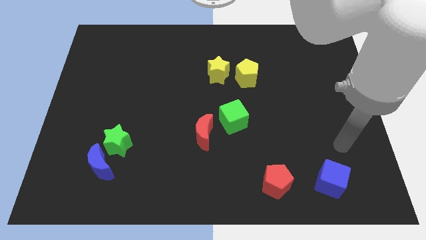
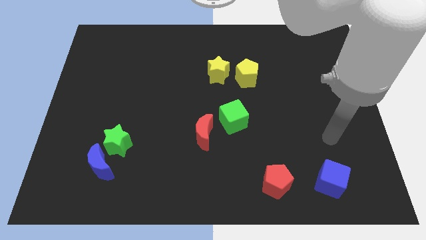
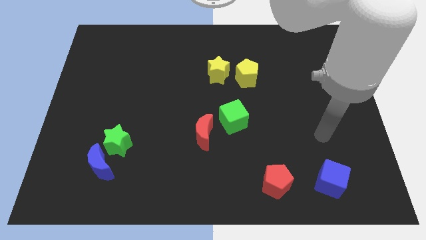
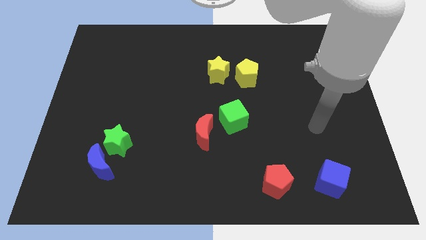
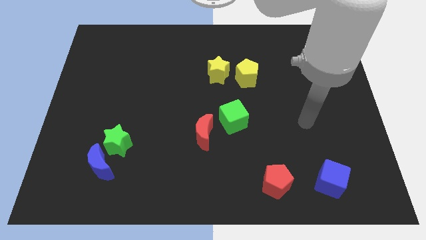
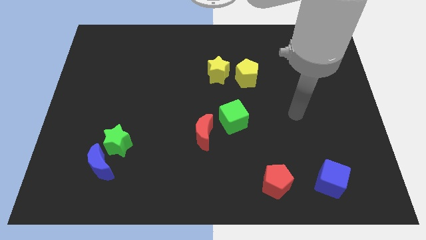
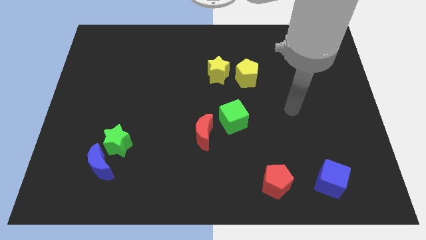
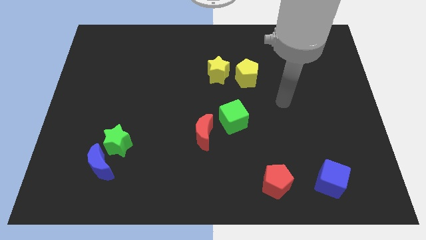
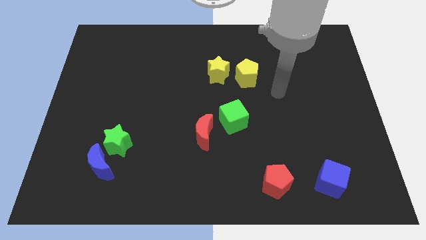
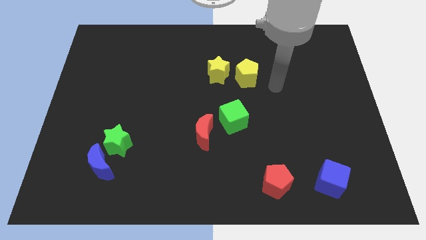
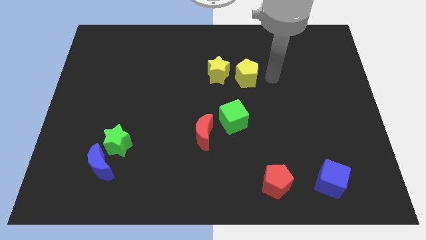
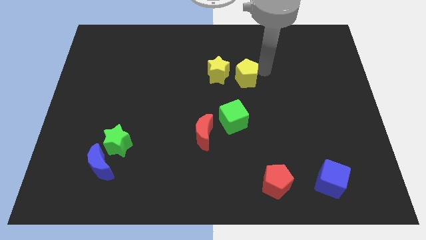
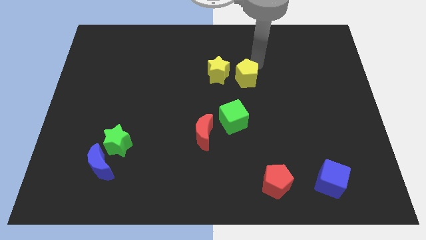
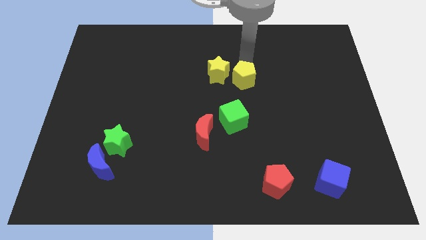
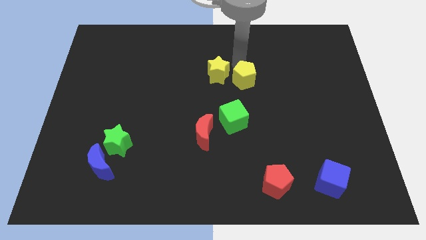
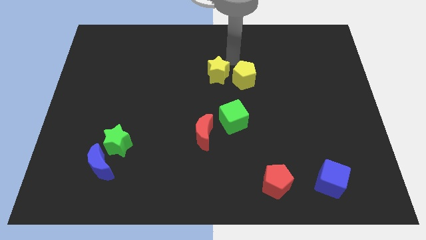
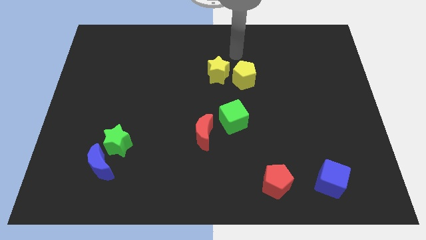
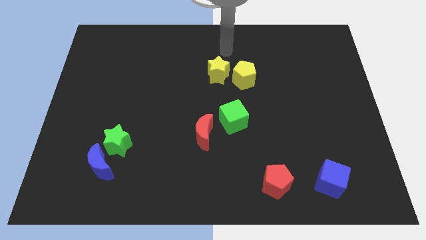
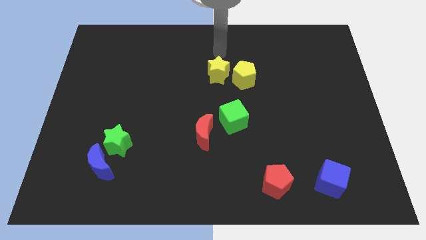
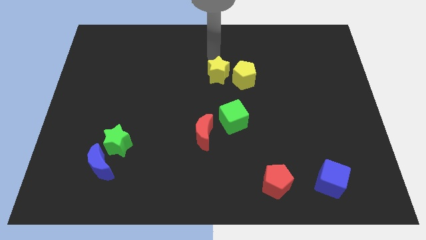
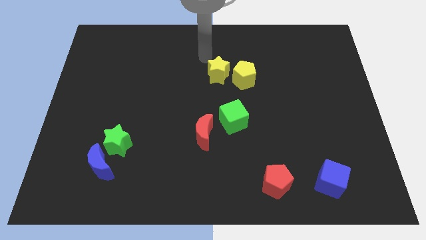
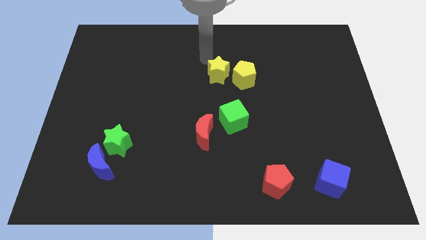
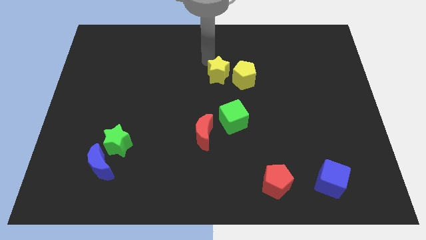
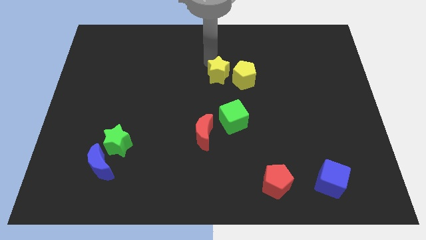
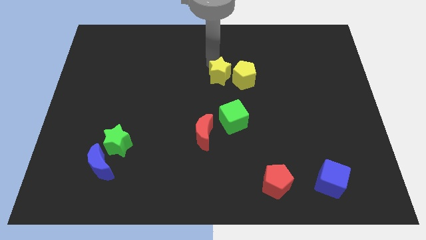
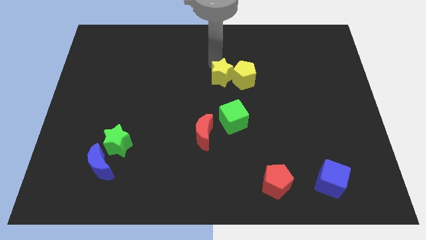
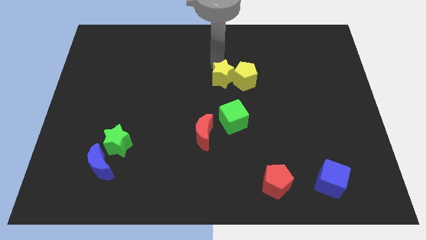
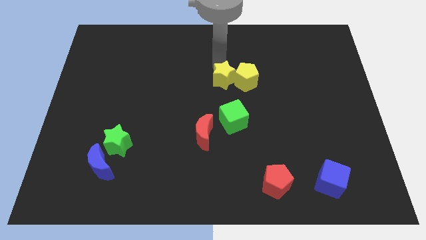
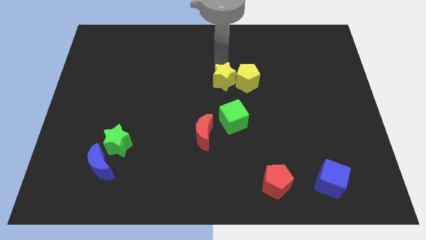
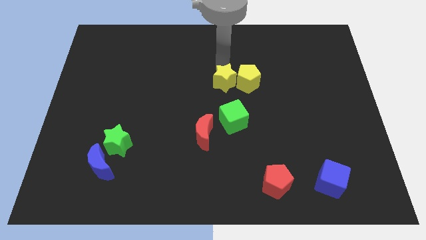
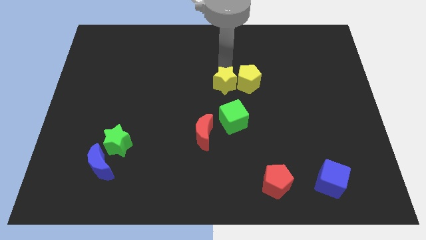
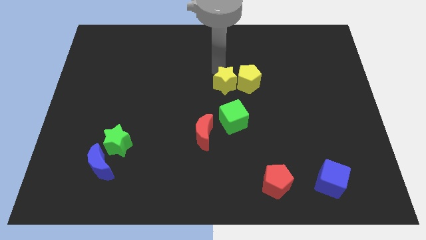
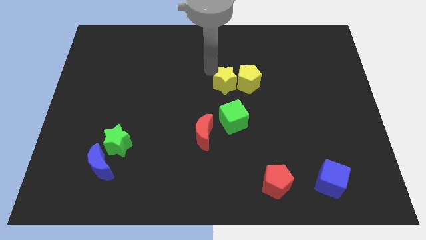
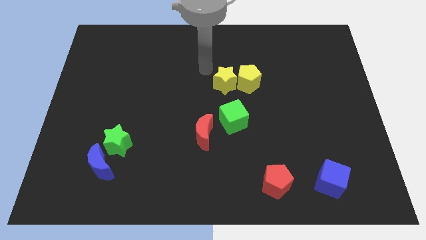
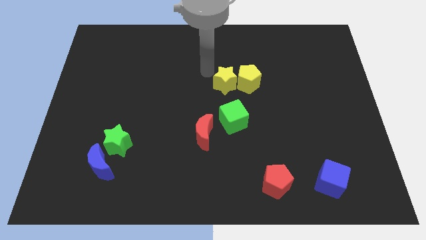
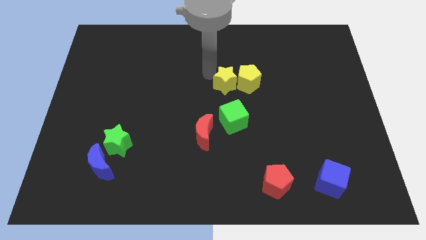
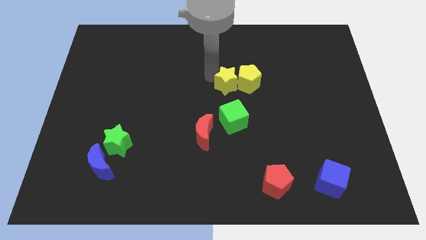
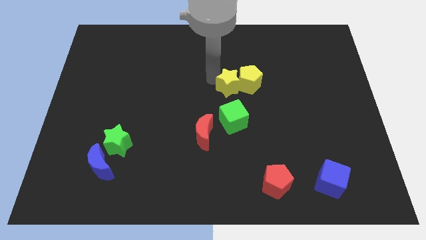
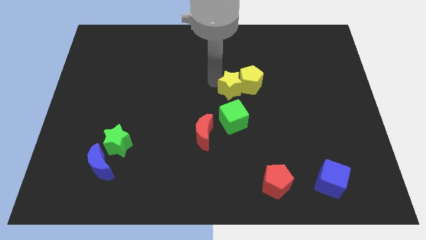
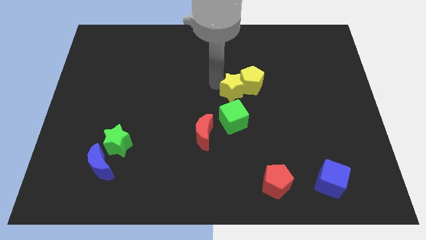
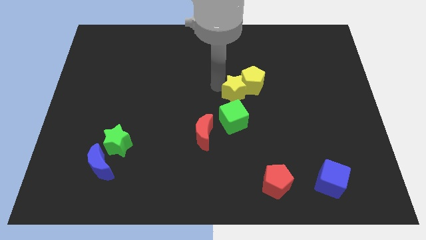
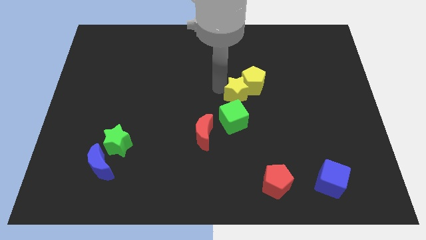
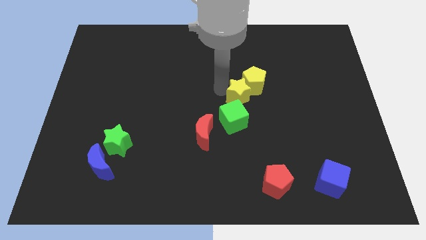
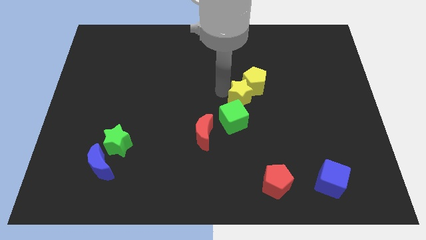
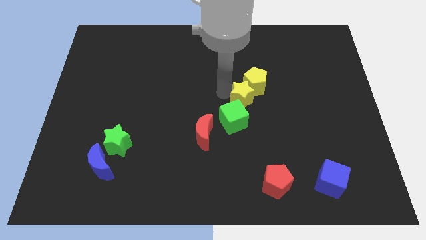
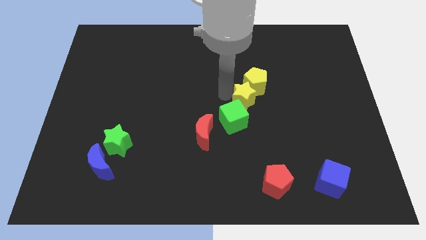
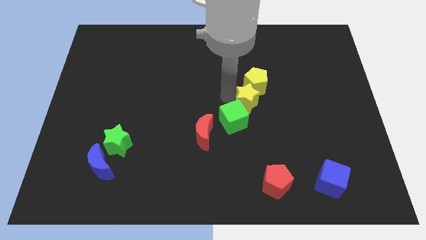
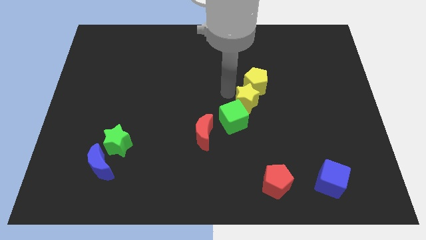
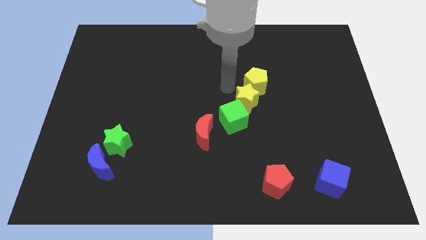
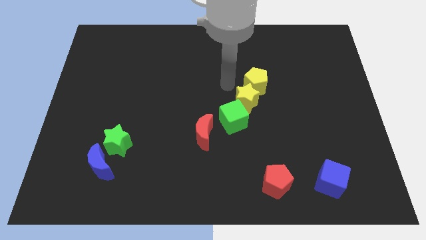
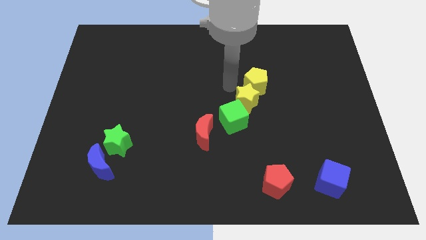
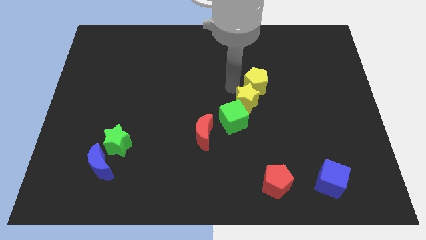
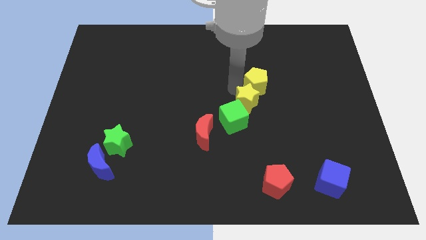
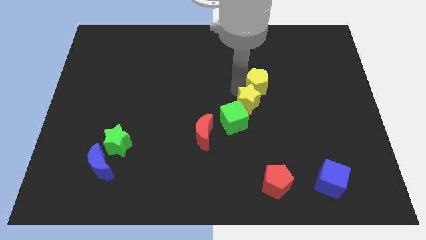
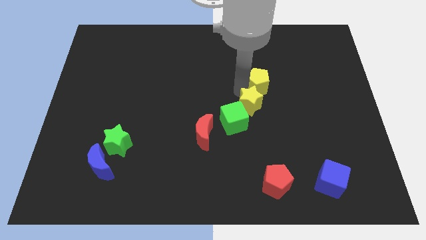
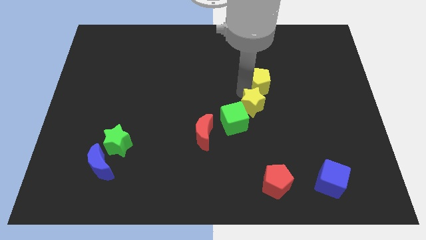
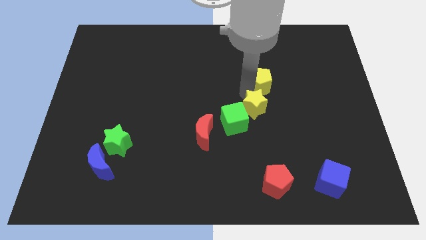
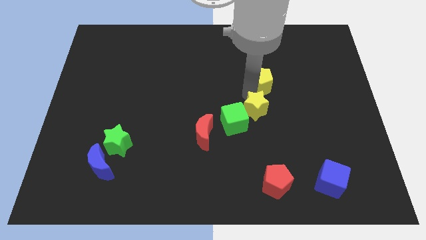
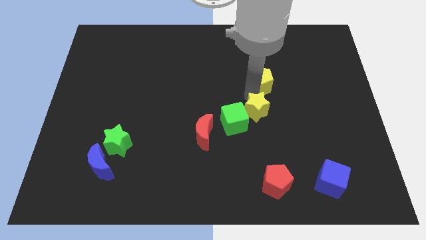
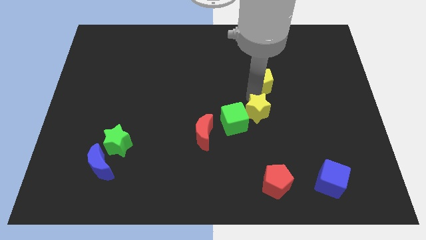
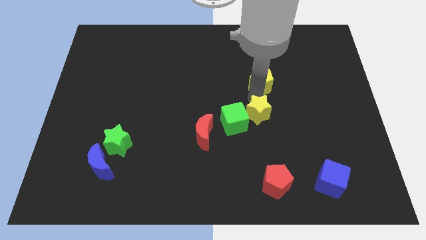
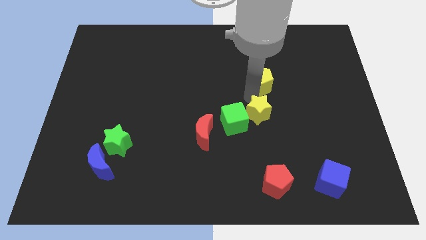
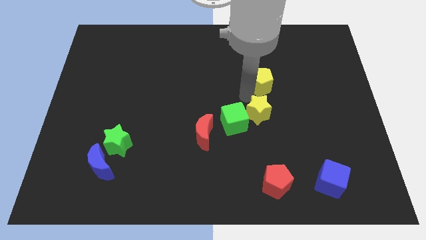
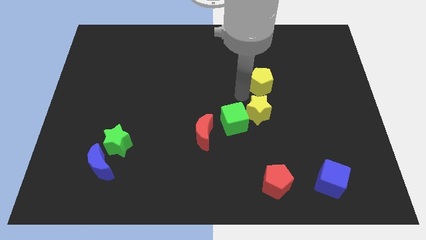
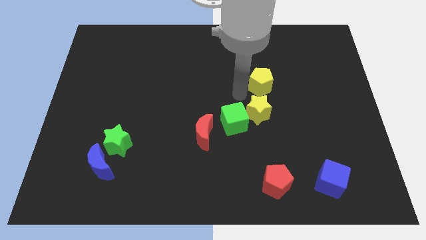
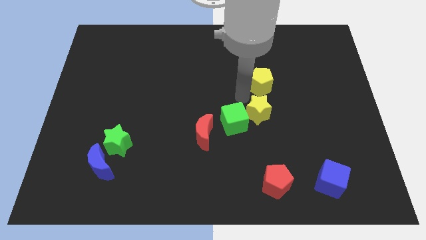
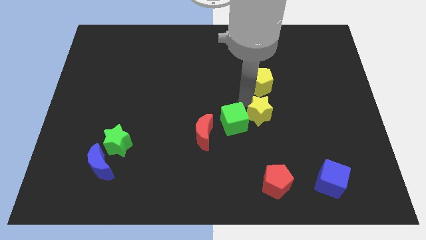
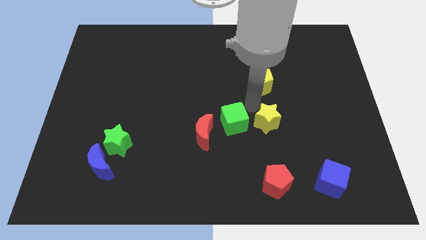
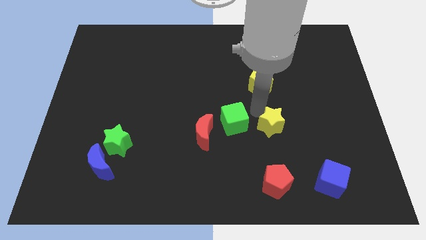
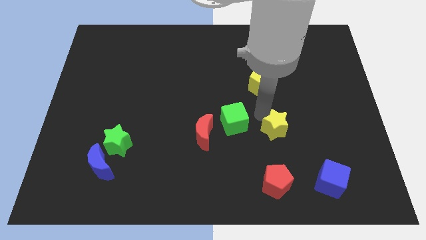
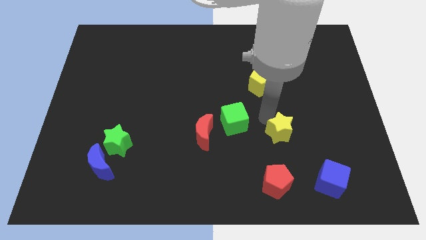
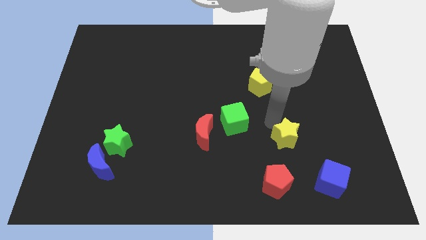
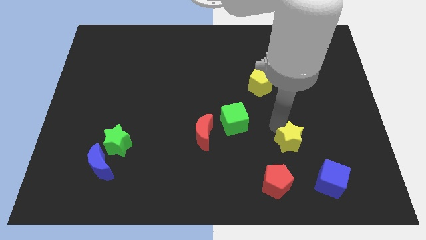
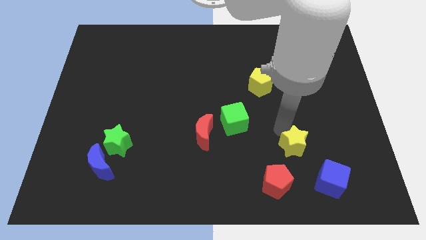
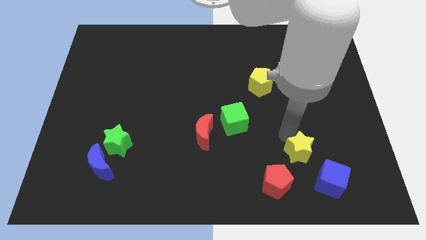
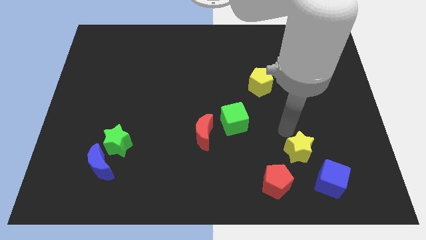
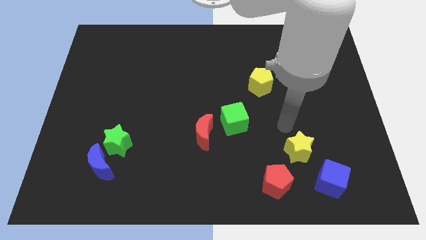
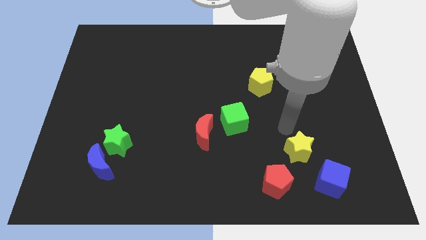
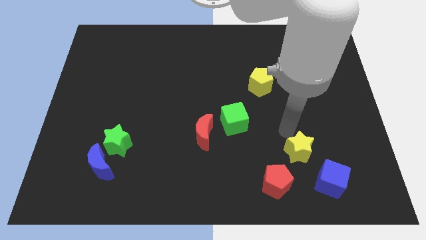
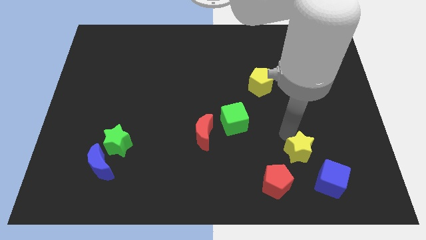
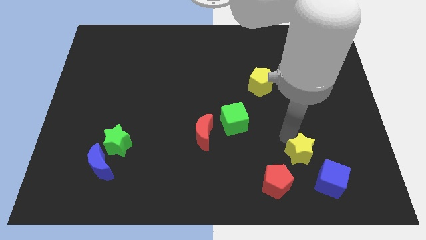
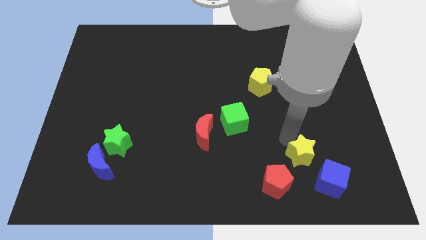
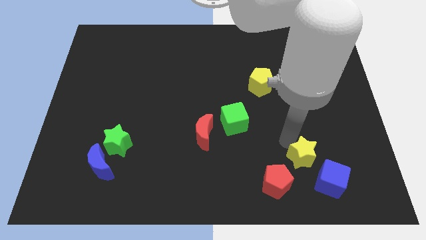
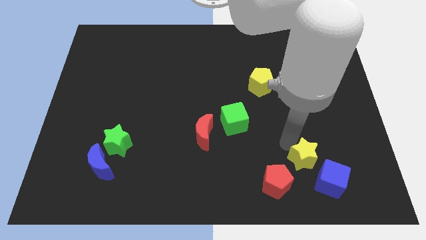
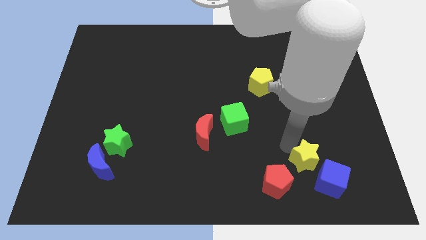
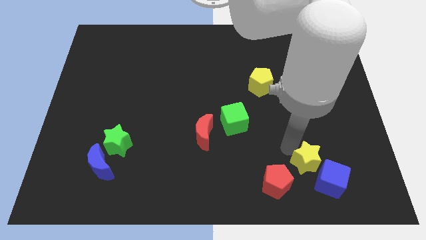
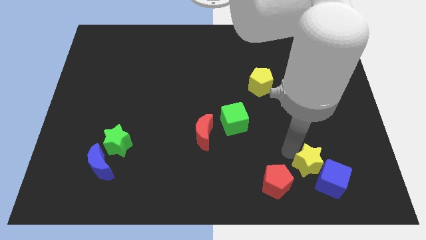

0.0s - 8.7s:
move the yellow star towards the blue cube
